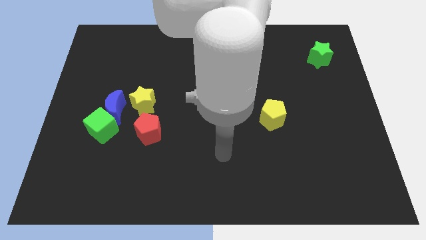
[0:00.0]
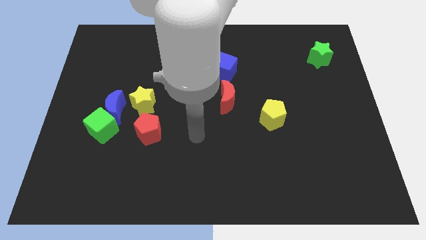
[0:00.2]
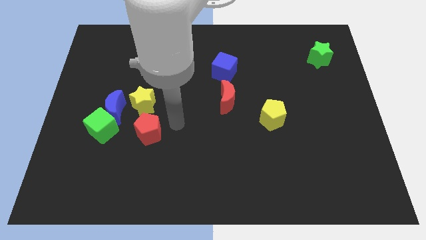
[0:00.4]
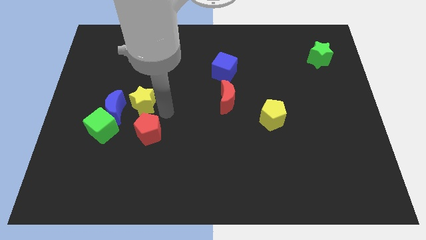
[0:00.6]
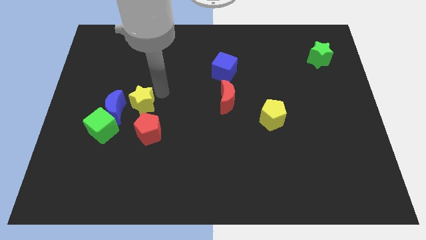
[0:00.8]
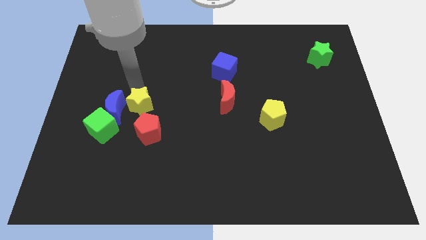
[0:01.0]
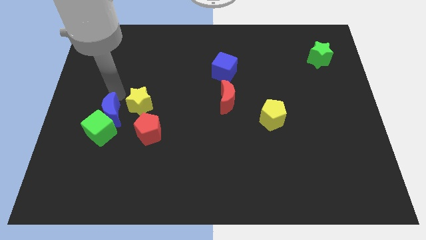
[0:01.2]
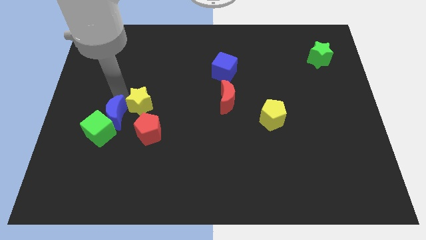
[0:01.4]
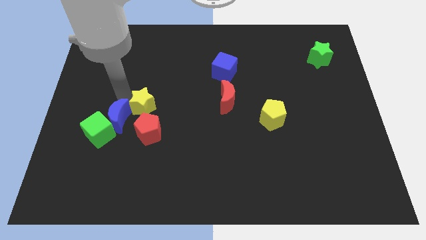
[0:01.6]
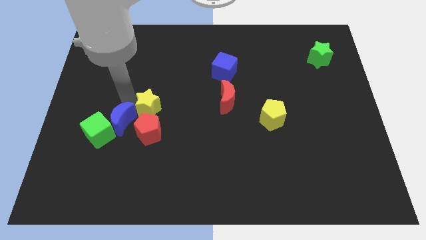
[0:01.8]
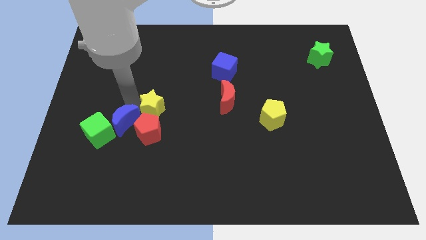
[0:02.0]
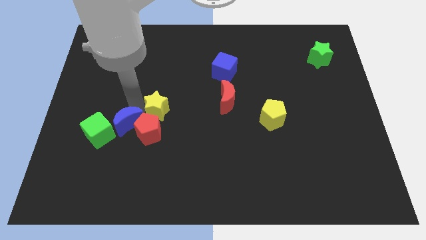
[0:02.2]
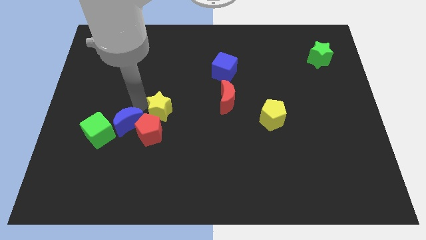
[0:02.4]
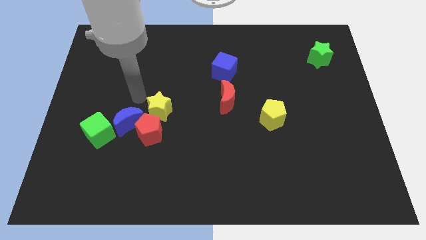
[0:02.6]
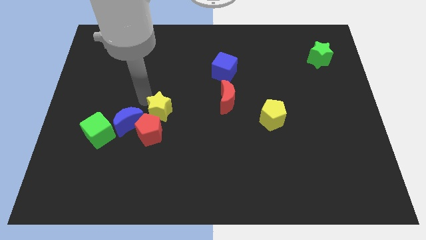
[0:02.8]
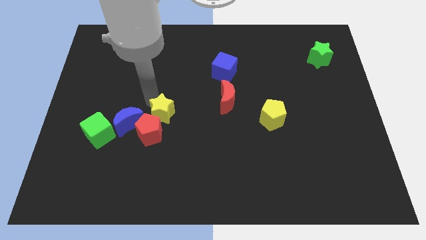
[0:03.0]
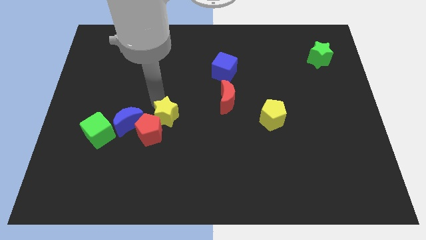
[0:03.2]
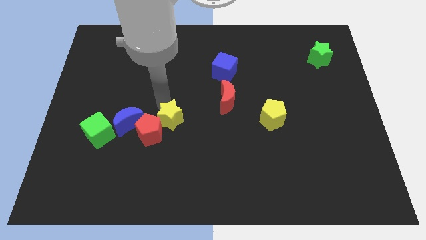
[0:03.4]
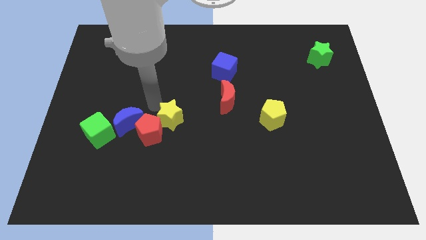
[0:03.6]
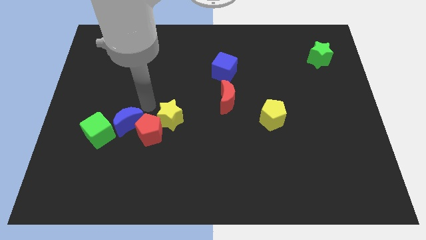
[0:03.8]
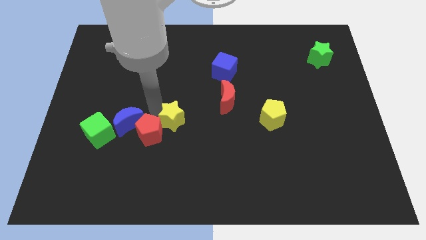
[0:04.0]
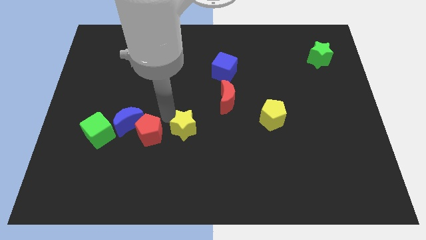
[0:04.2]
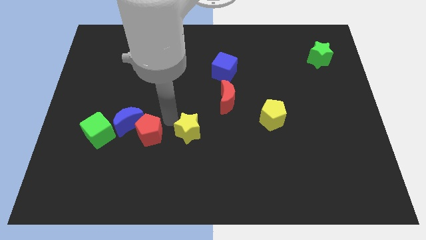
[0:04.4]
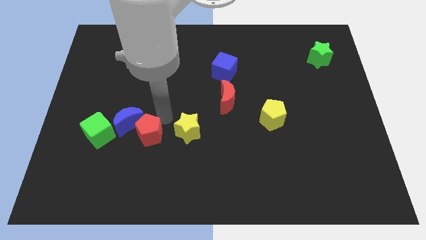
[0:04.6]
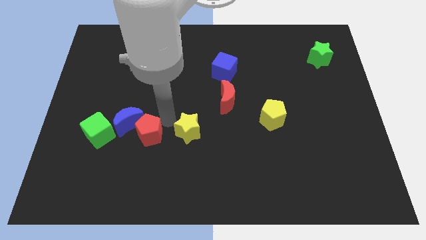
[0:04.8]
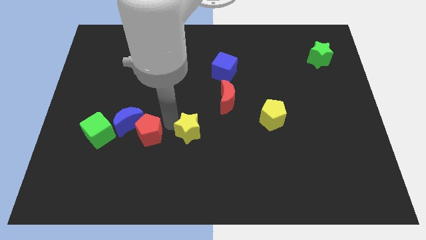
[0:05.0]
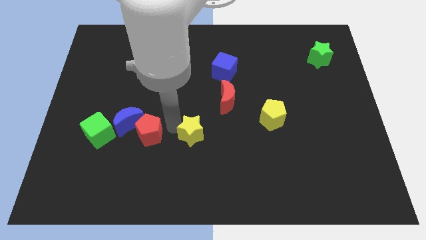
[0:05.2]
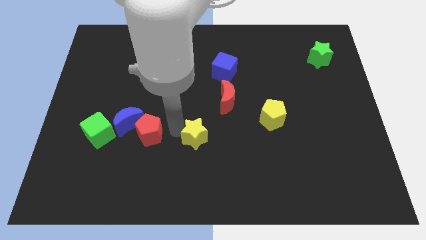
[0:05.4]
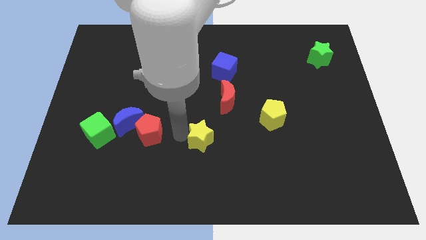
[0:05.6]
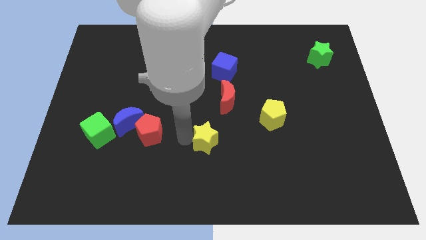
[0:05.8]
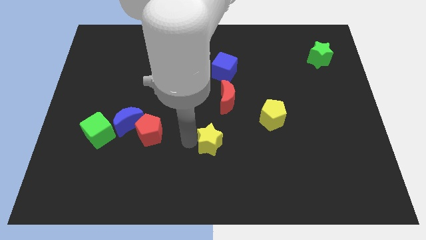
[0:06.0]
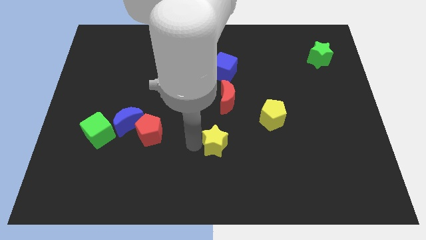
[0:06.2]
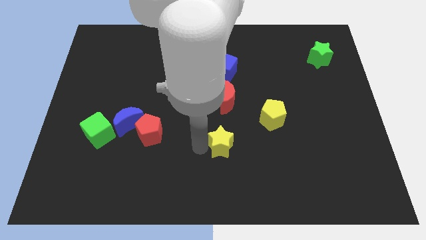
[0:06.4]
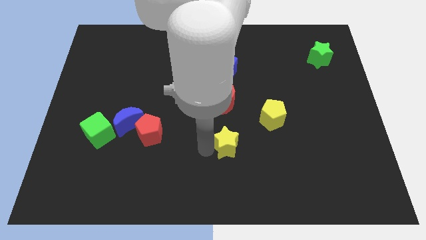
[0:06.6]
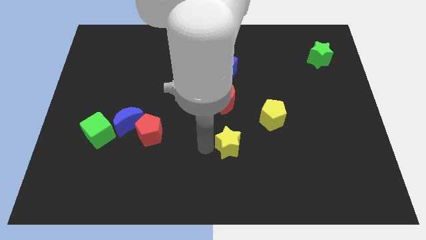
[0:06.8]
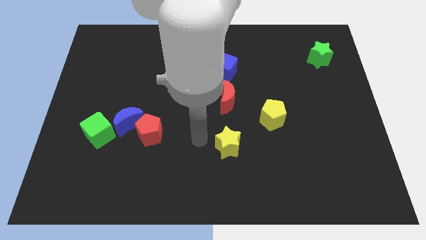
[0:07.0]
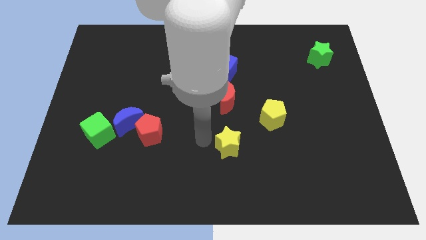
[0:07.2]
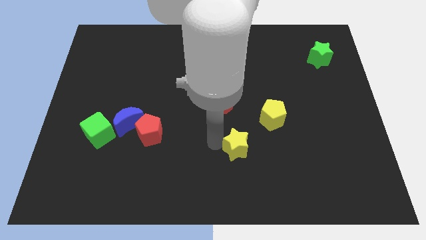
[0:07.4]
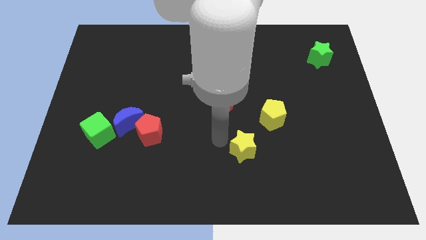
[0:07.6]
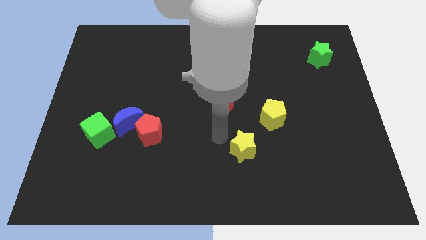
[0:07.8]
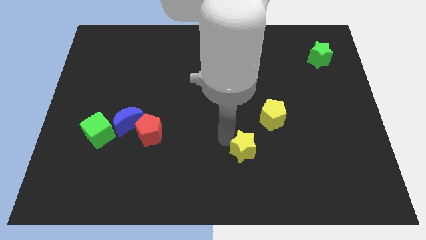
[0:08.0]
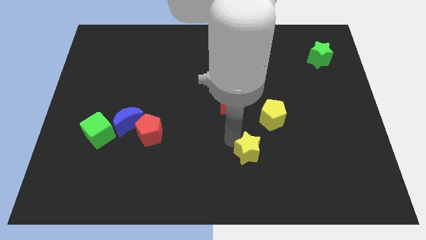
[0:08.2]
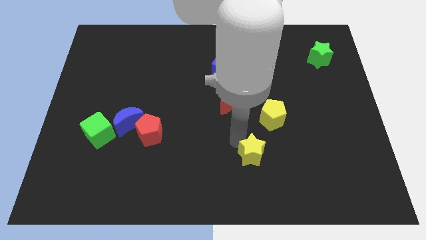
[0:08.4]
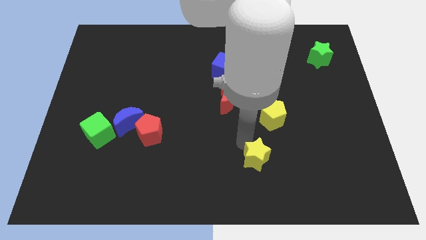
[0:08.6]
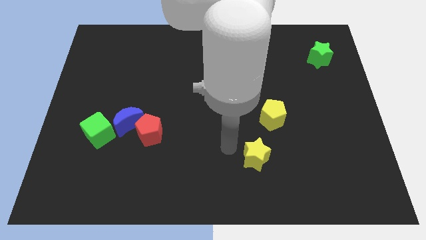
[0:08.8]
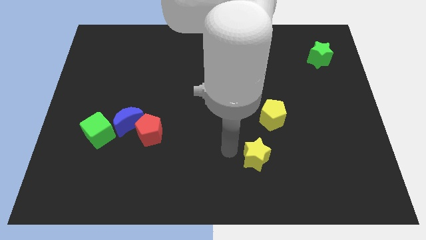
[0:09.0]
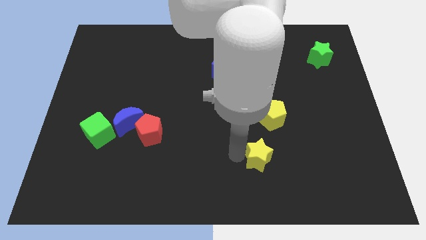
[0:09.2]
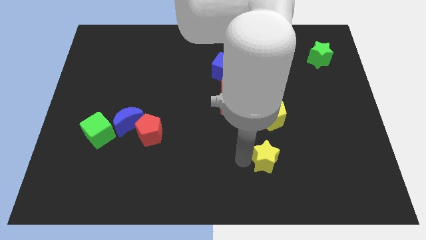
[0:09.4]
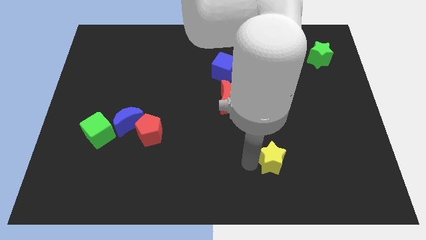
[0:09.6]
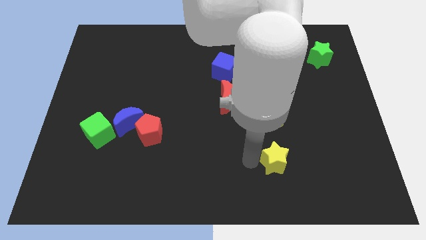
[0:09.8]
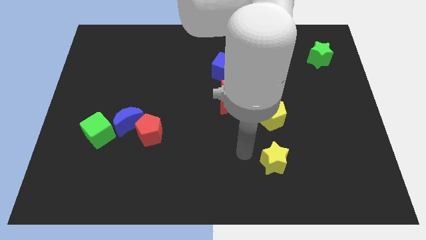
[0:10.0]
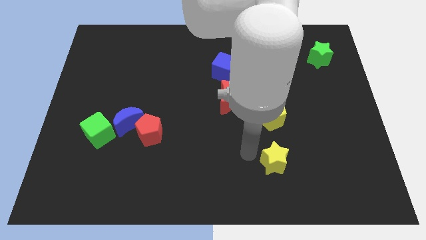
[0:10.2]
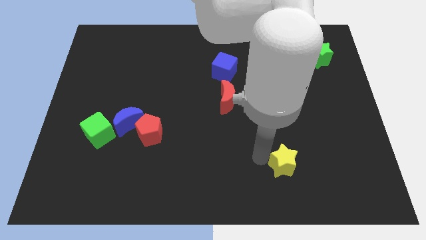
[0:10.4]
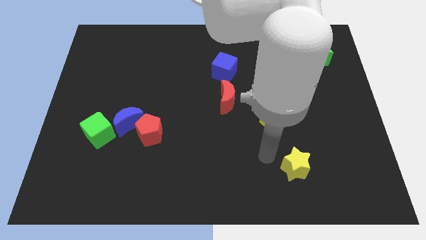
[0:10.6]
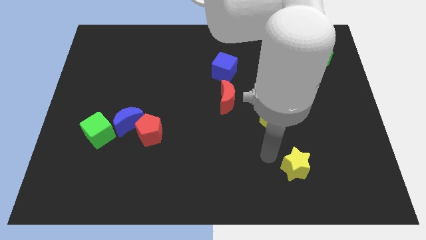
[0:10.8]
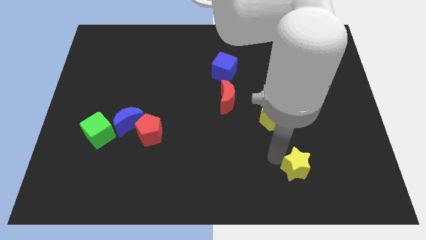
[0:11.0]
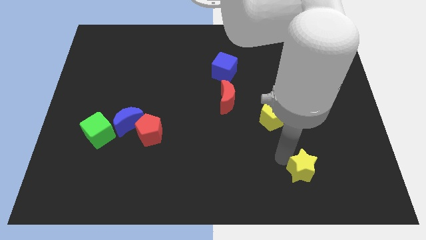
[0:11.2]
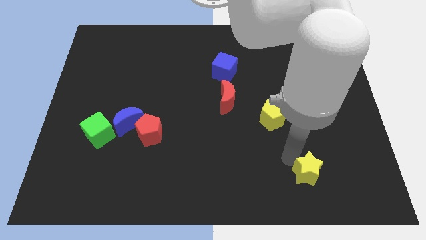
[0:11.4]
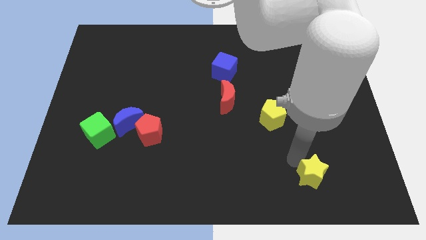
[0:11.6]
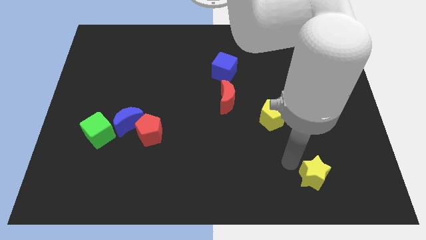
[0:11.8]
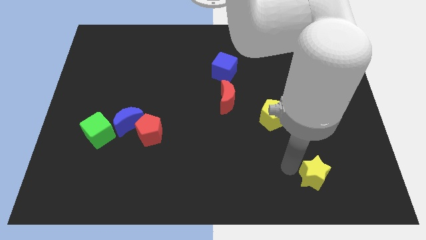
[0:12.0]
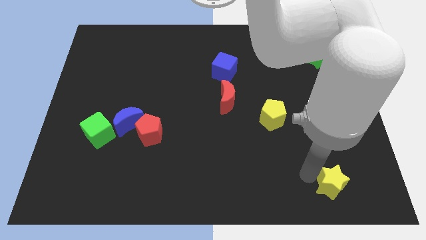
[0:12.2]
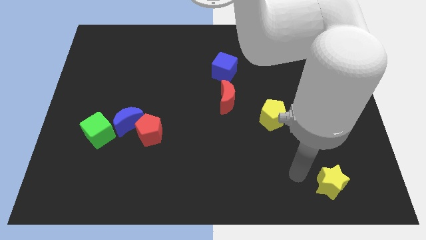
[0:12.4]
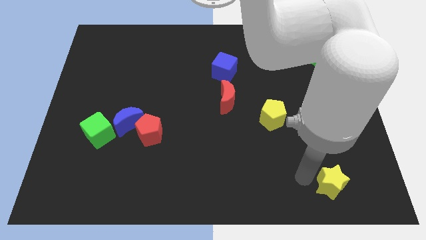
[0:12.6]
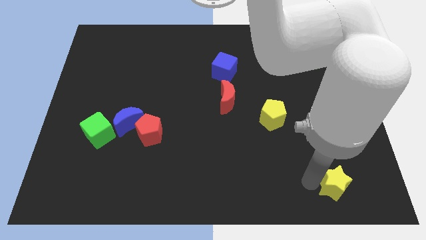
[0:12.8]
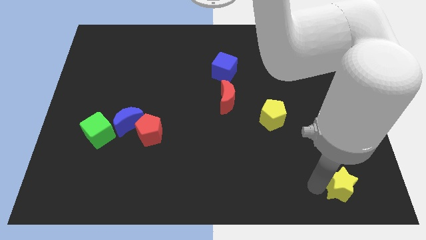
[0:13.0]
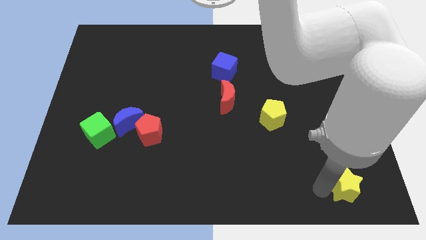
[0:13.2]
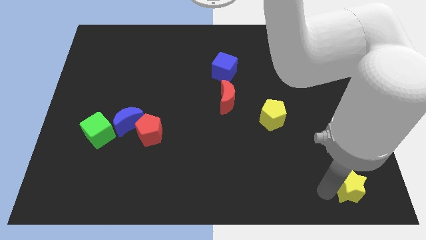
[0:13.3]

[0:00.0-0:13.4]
push the yellow star to the bottom right corner
